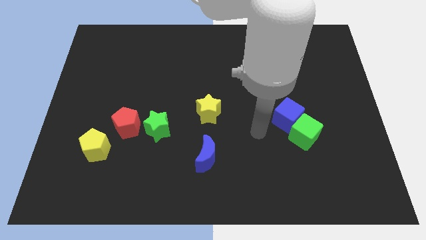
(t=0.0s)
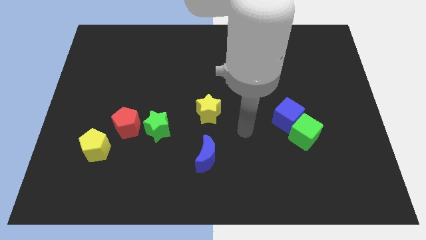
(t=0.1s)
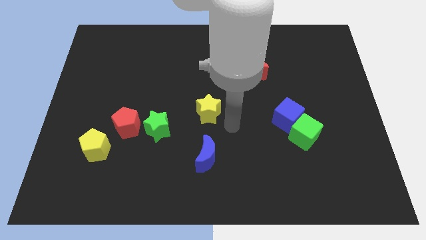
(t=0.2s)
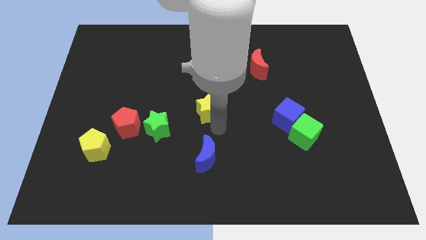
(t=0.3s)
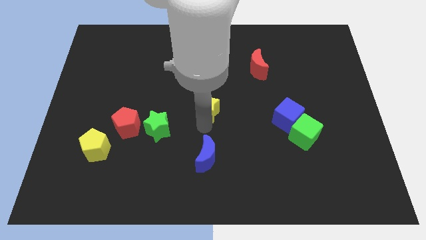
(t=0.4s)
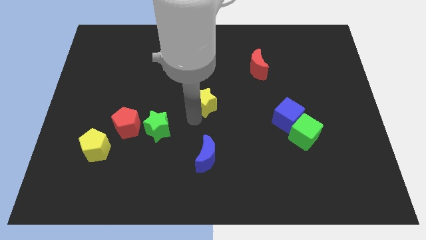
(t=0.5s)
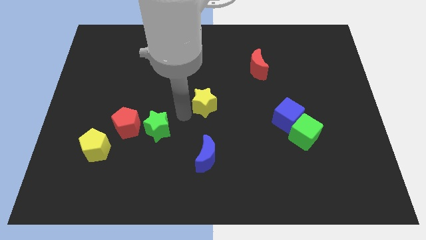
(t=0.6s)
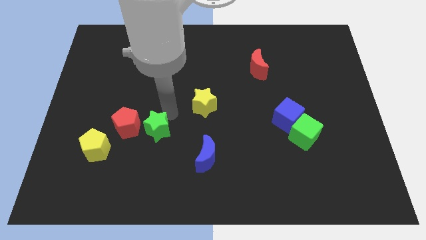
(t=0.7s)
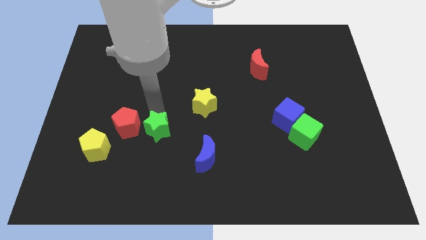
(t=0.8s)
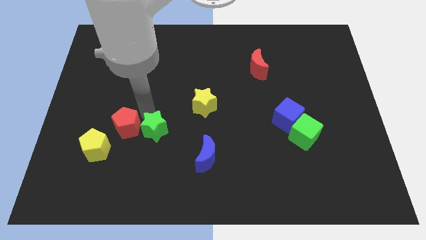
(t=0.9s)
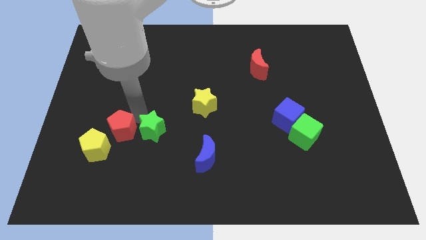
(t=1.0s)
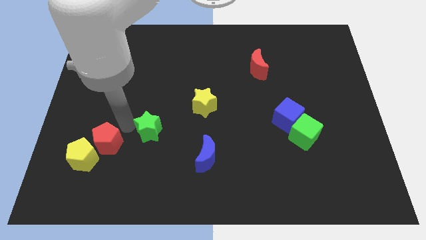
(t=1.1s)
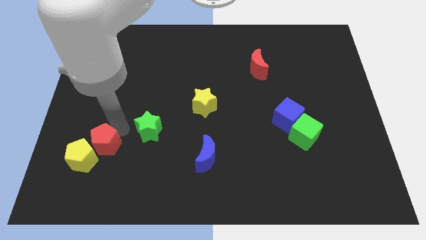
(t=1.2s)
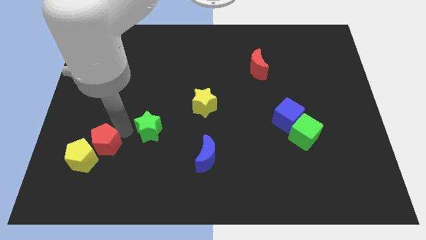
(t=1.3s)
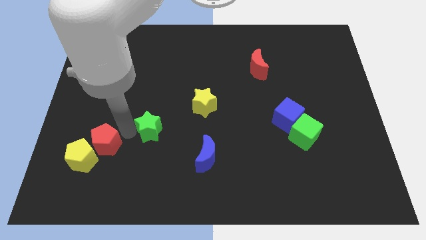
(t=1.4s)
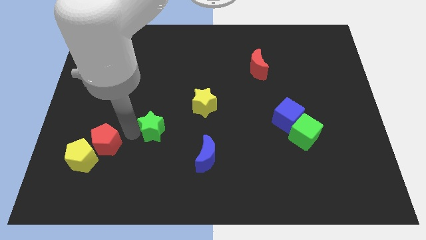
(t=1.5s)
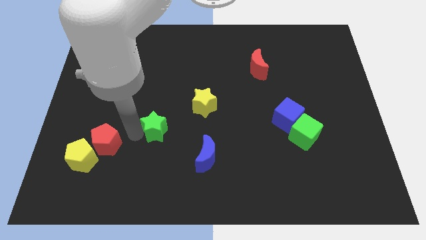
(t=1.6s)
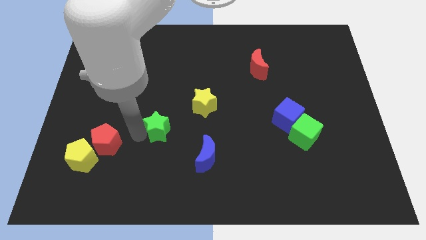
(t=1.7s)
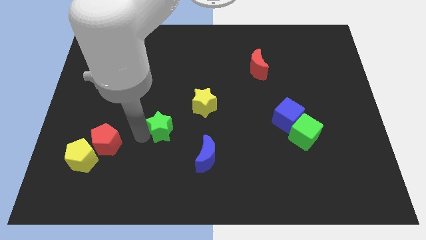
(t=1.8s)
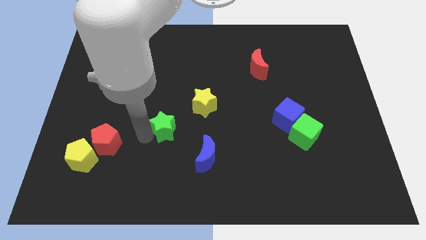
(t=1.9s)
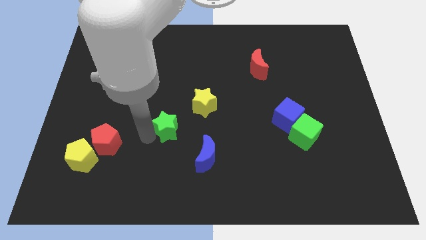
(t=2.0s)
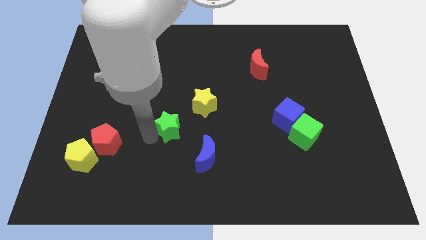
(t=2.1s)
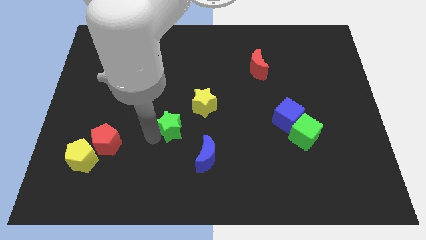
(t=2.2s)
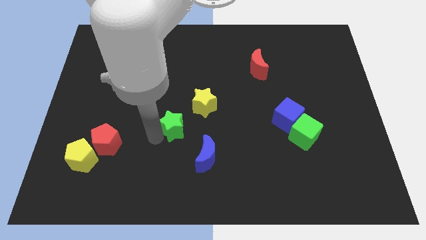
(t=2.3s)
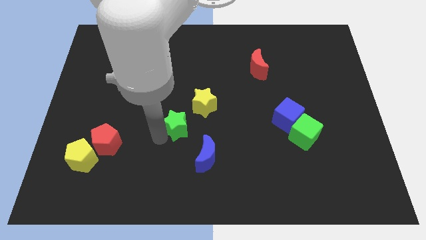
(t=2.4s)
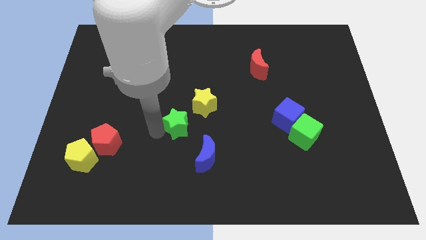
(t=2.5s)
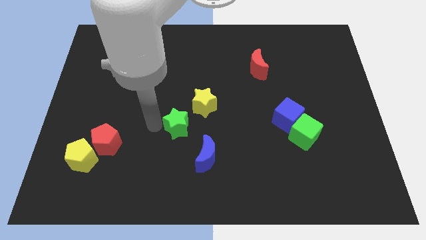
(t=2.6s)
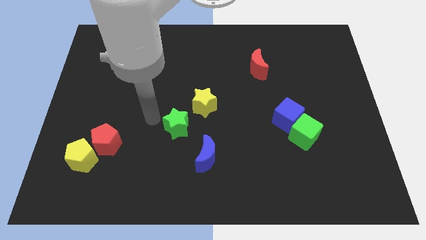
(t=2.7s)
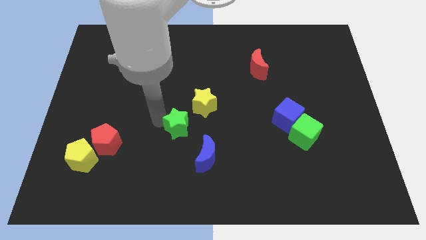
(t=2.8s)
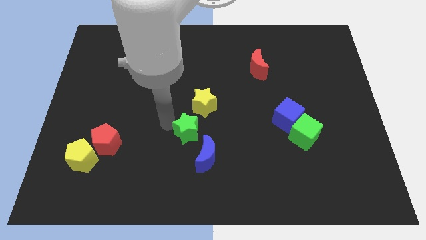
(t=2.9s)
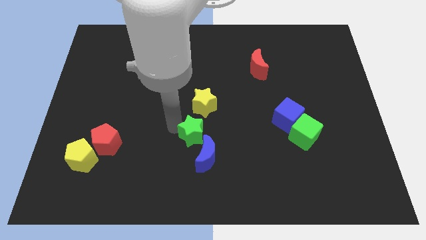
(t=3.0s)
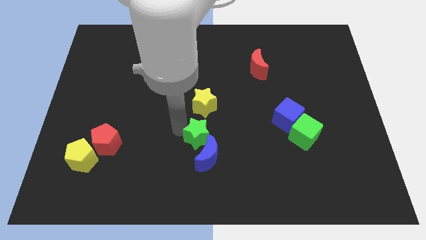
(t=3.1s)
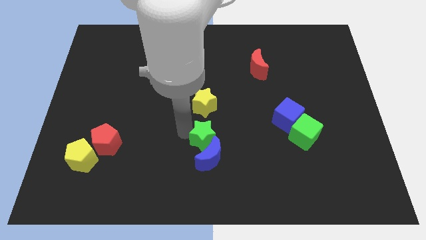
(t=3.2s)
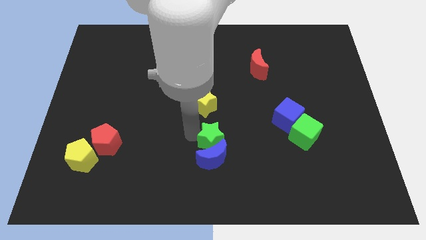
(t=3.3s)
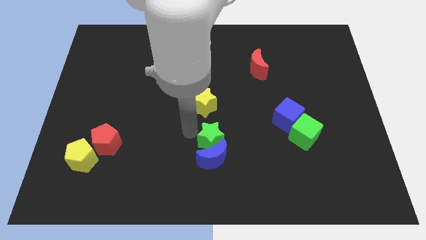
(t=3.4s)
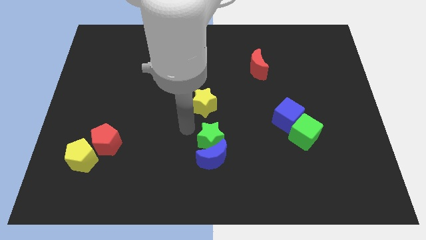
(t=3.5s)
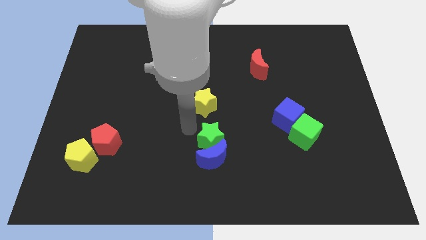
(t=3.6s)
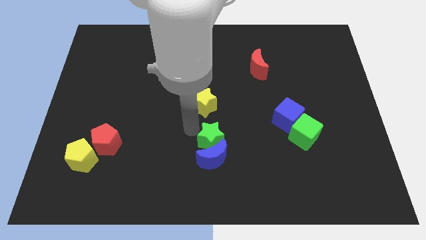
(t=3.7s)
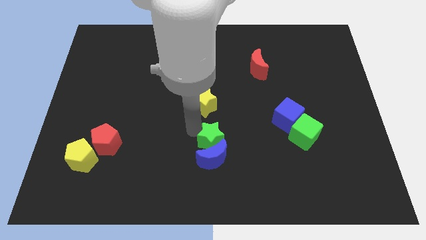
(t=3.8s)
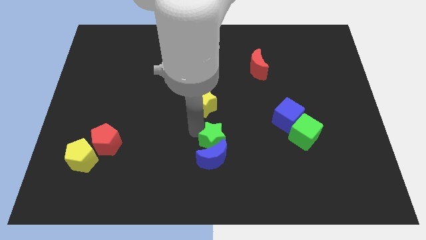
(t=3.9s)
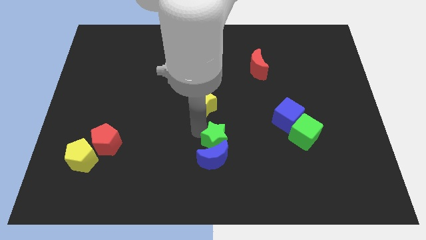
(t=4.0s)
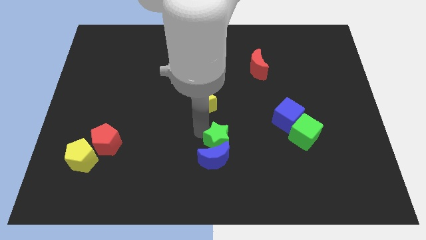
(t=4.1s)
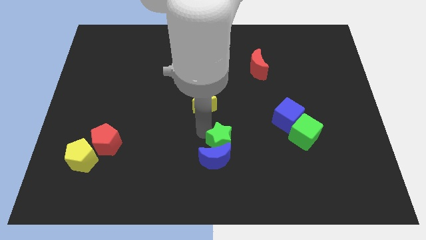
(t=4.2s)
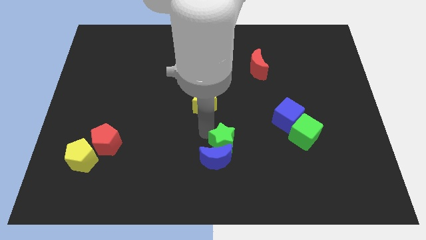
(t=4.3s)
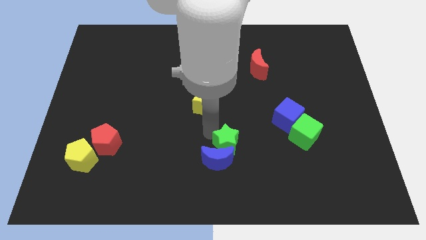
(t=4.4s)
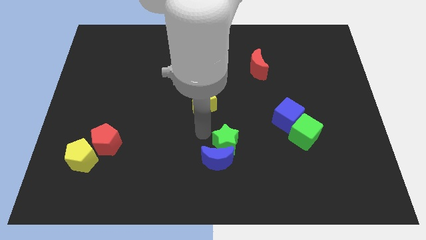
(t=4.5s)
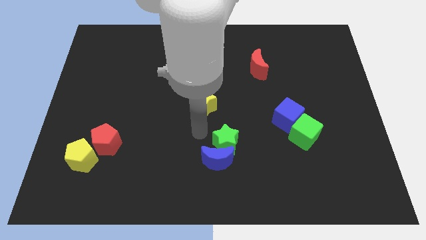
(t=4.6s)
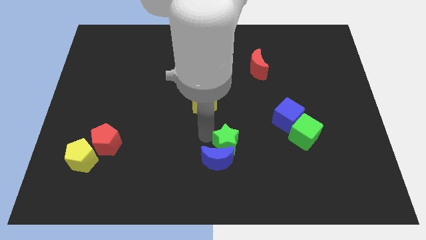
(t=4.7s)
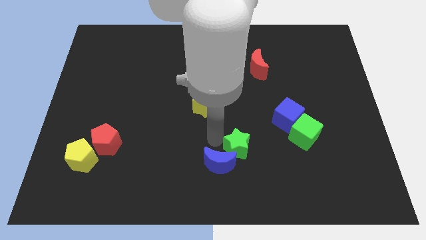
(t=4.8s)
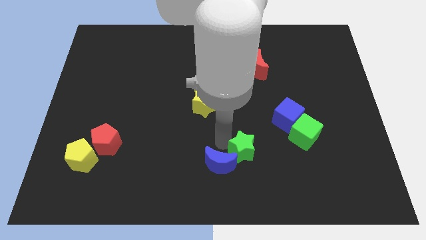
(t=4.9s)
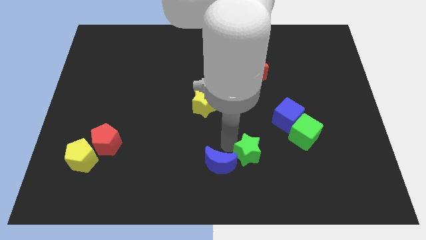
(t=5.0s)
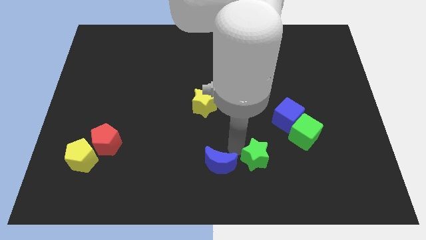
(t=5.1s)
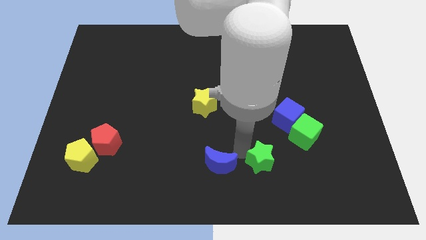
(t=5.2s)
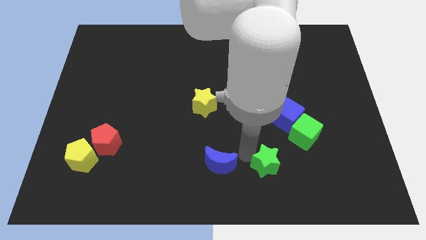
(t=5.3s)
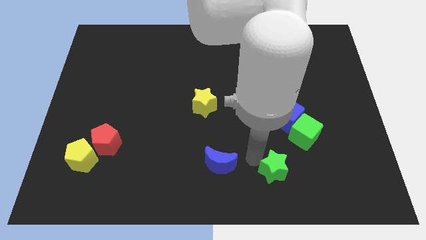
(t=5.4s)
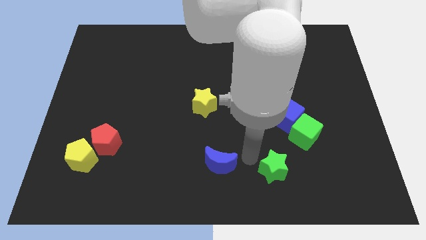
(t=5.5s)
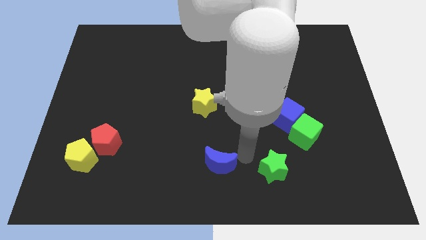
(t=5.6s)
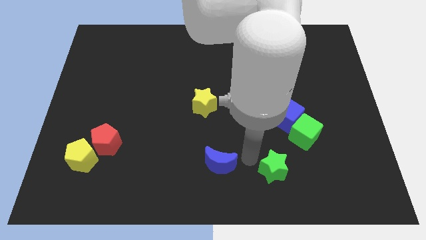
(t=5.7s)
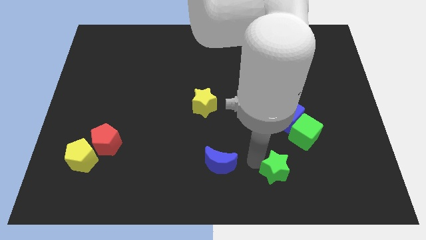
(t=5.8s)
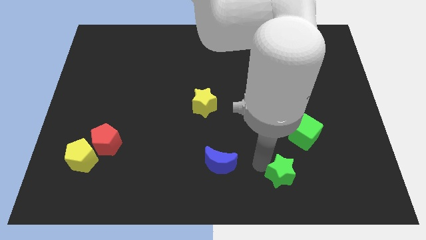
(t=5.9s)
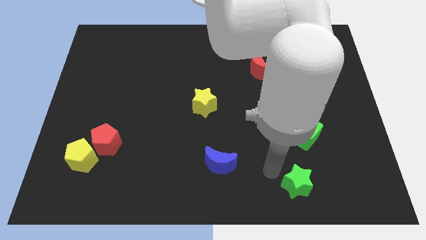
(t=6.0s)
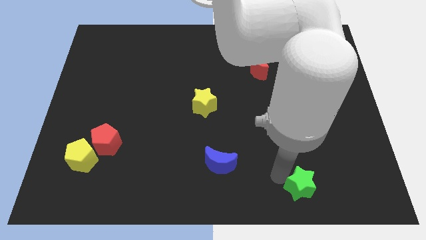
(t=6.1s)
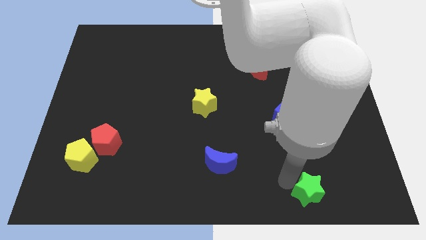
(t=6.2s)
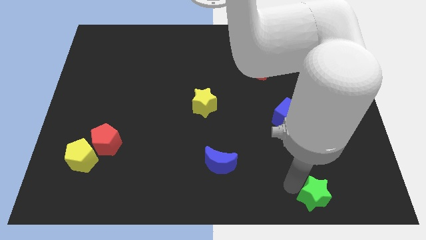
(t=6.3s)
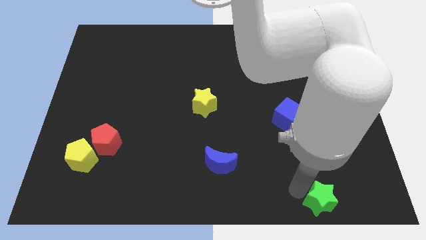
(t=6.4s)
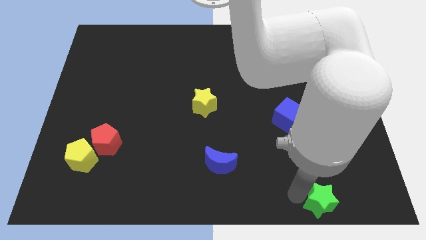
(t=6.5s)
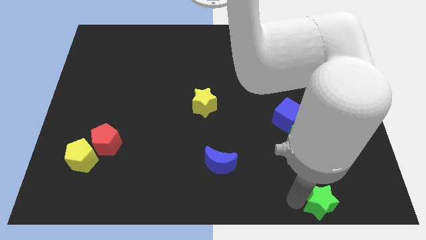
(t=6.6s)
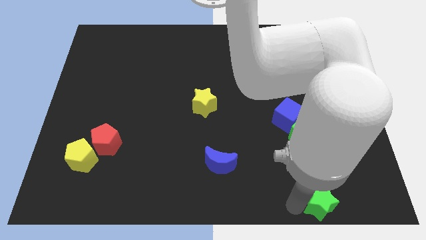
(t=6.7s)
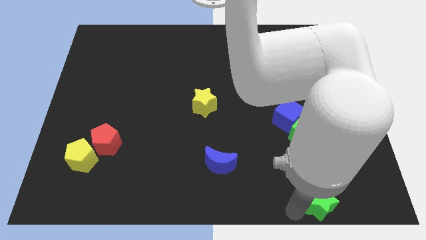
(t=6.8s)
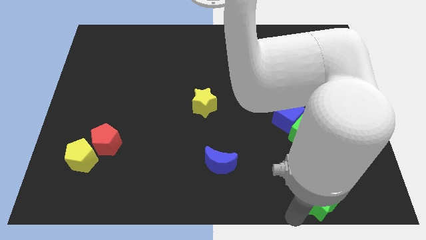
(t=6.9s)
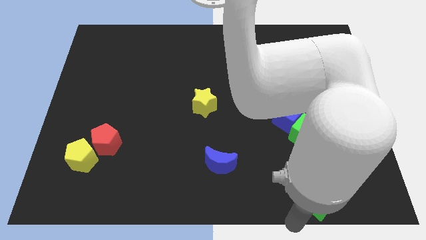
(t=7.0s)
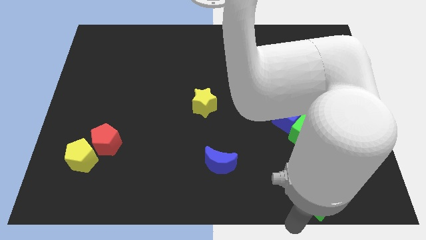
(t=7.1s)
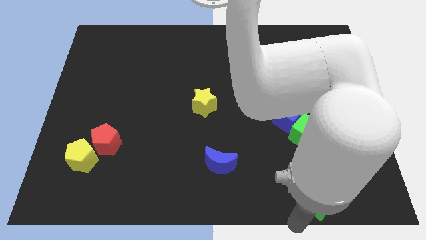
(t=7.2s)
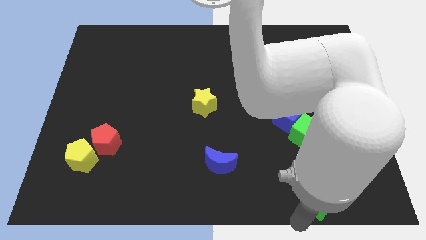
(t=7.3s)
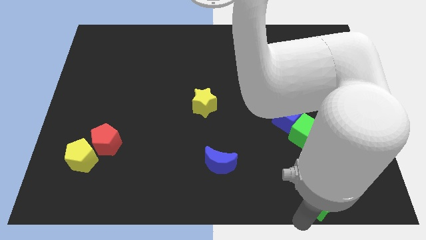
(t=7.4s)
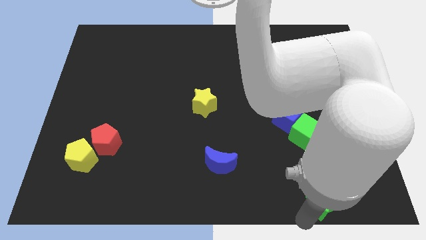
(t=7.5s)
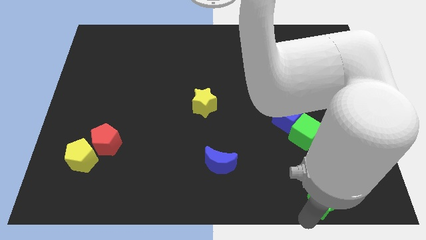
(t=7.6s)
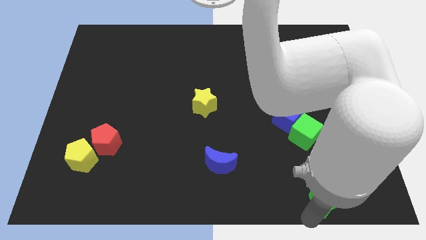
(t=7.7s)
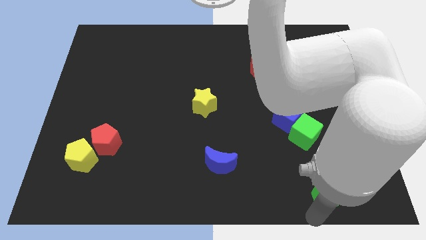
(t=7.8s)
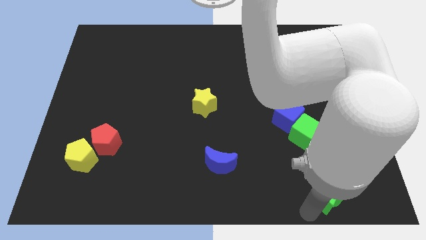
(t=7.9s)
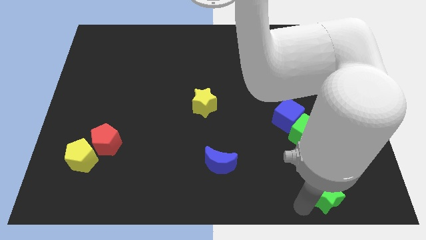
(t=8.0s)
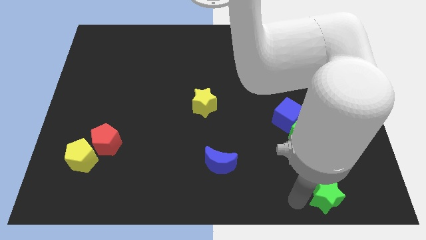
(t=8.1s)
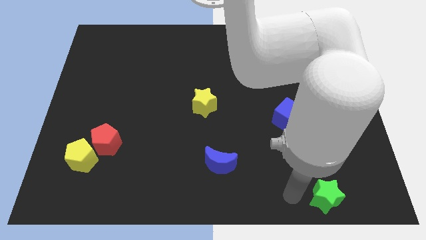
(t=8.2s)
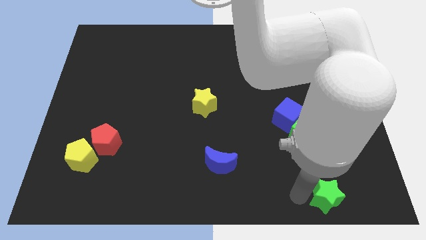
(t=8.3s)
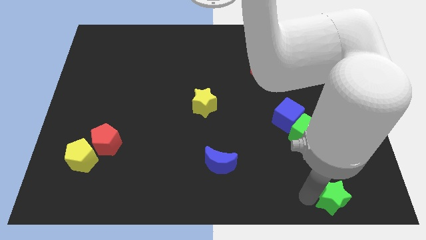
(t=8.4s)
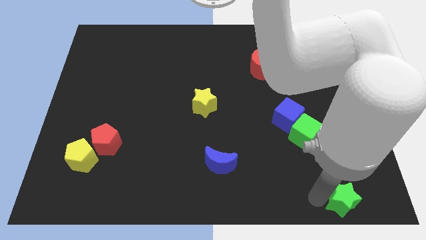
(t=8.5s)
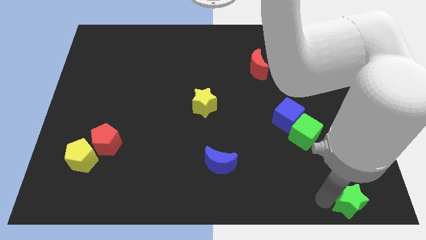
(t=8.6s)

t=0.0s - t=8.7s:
slide the green star to the bottom right of the board
